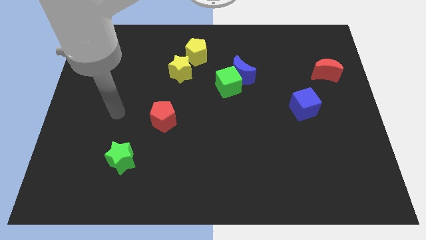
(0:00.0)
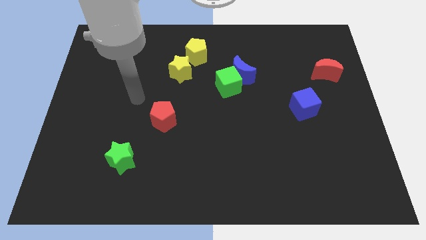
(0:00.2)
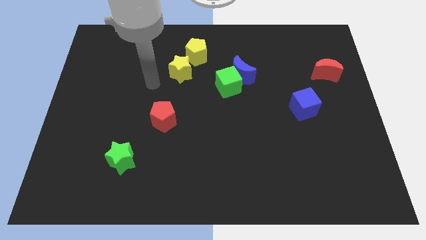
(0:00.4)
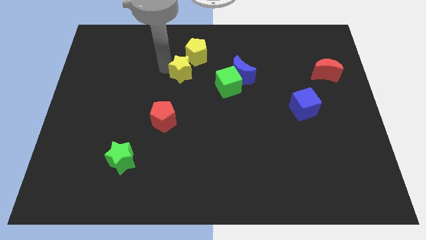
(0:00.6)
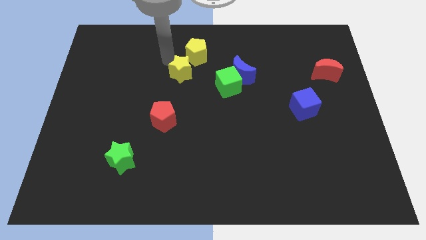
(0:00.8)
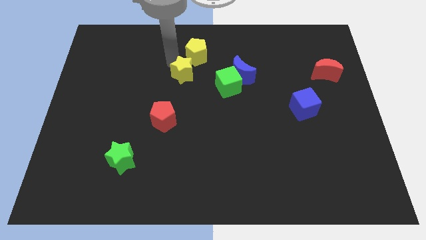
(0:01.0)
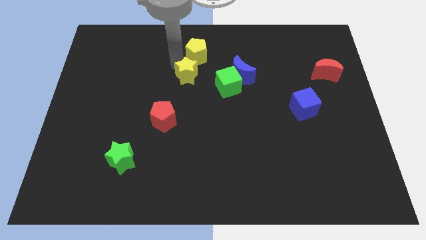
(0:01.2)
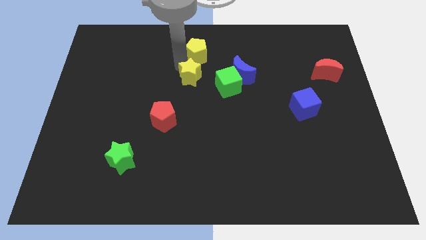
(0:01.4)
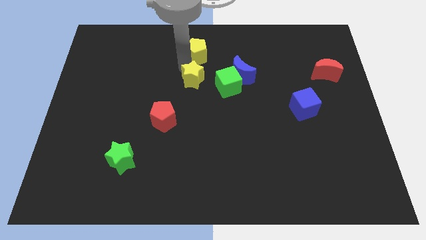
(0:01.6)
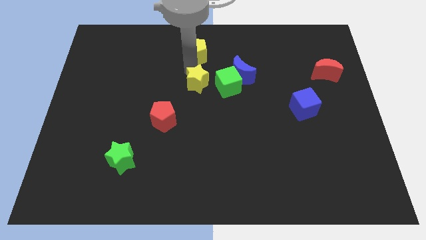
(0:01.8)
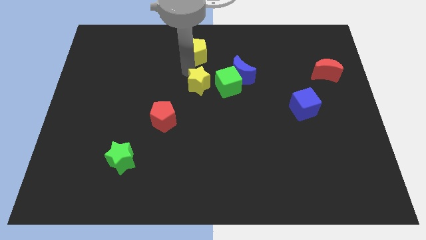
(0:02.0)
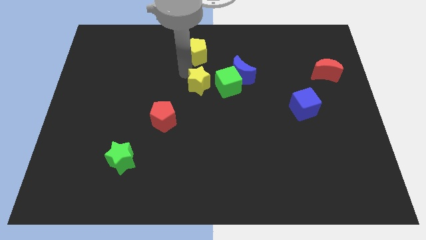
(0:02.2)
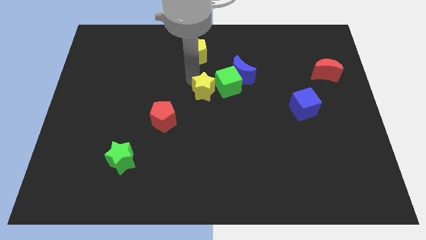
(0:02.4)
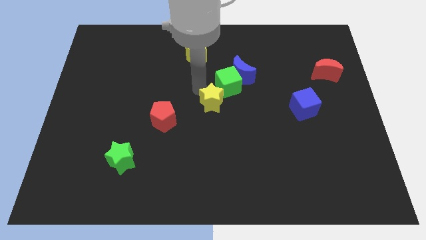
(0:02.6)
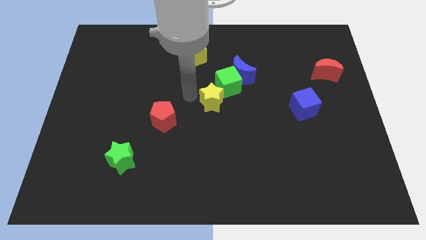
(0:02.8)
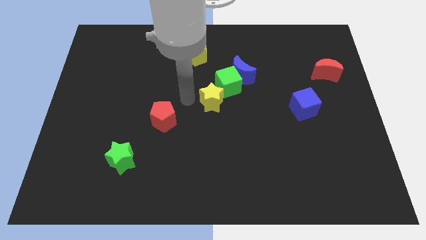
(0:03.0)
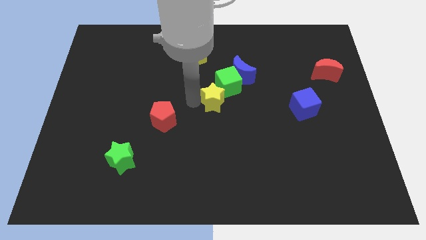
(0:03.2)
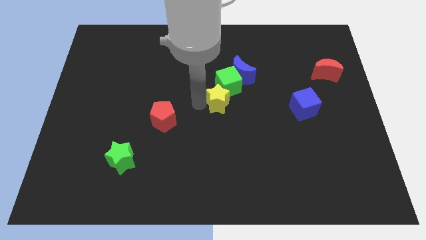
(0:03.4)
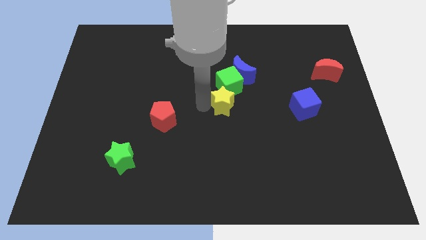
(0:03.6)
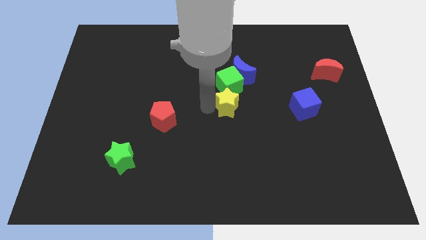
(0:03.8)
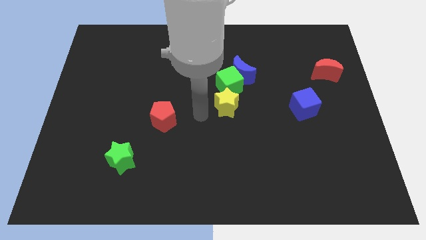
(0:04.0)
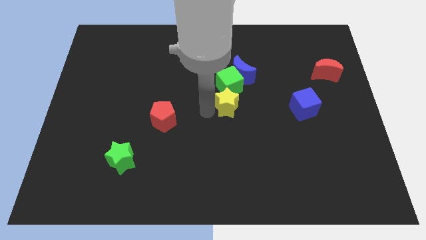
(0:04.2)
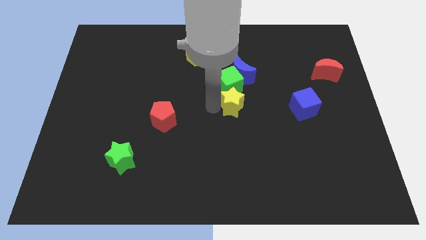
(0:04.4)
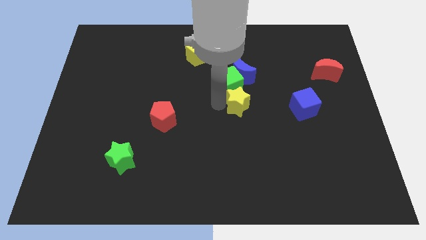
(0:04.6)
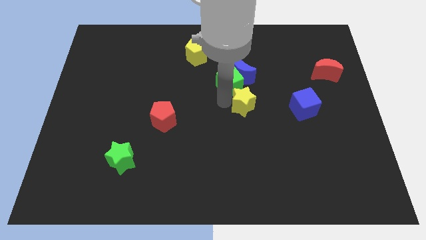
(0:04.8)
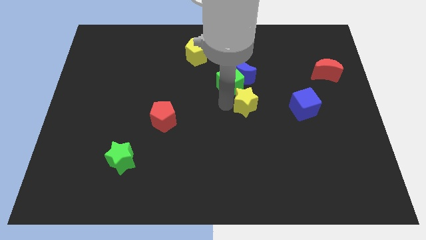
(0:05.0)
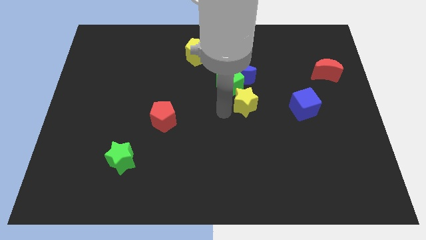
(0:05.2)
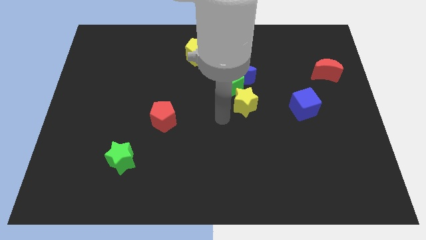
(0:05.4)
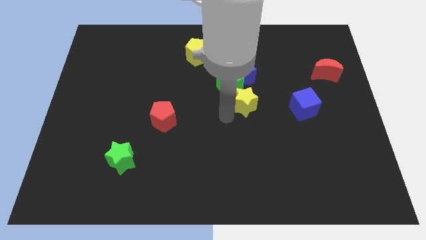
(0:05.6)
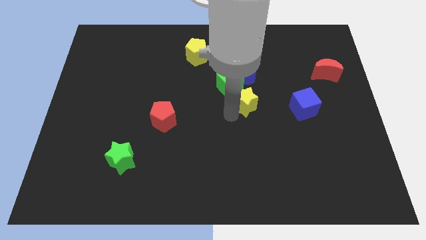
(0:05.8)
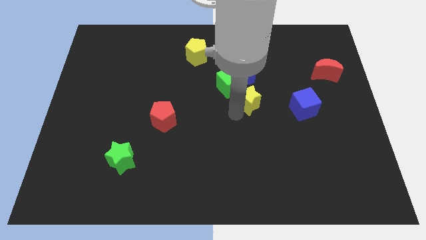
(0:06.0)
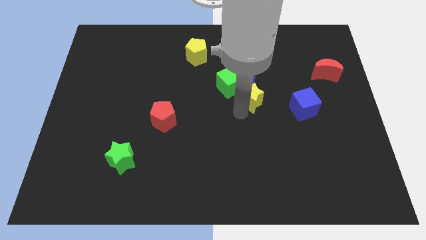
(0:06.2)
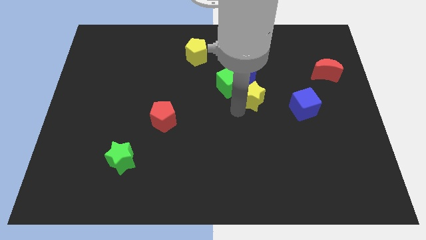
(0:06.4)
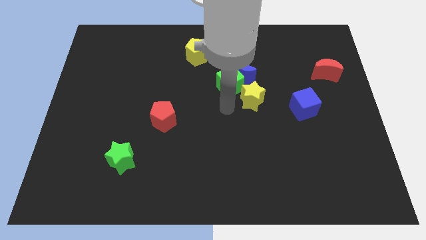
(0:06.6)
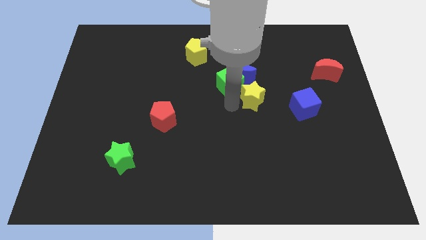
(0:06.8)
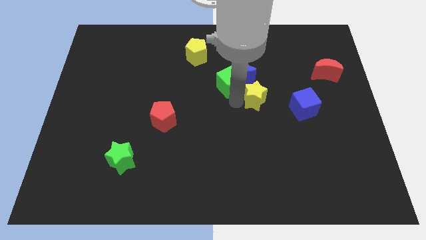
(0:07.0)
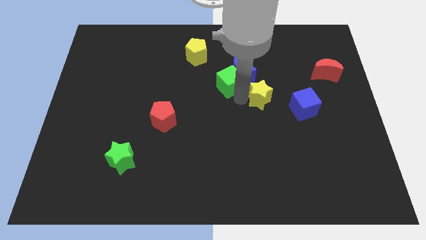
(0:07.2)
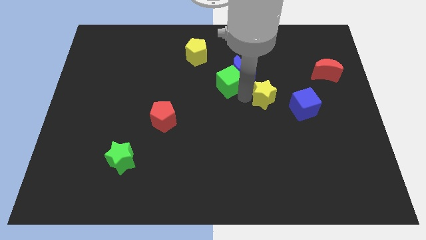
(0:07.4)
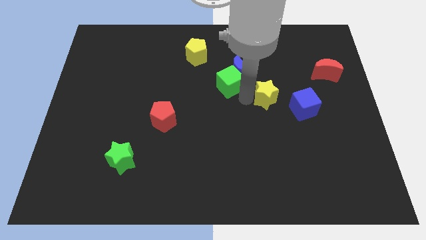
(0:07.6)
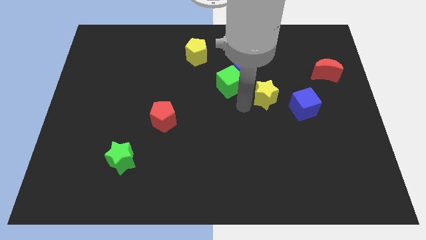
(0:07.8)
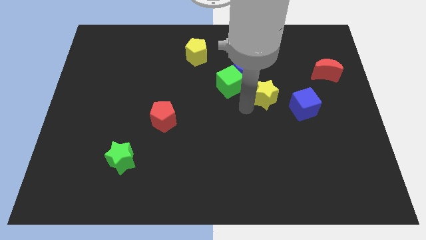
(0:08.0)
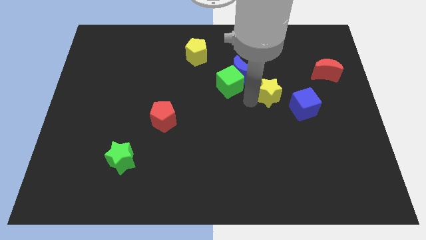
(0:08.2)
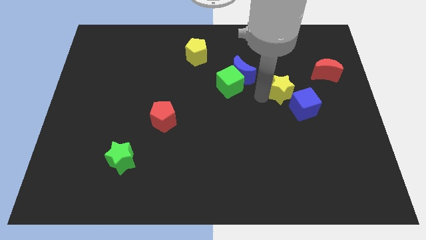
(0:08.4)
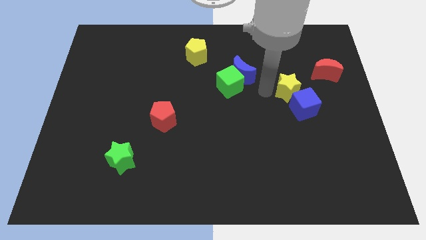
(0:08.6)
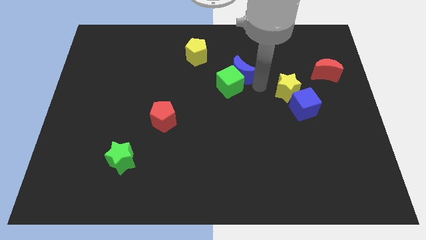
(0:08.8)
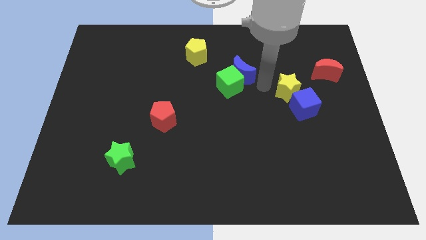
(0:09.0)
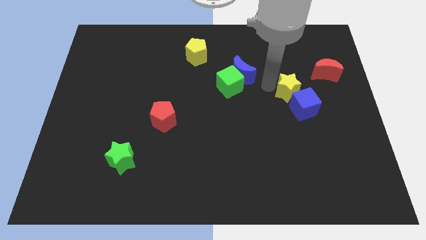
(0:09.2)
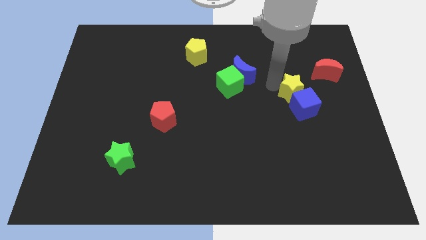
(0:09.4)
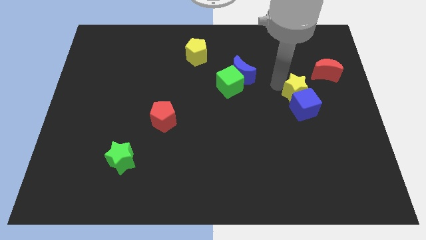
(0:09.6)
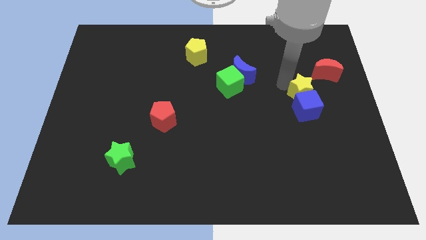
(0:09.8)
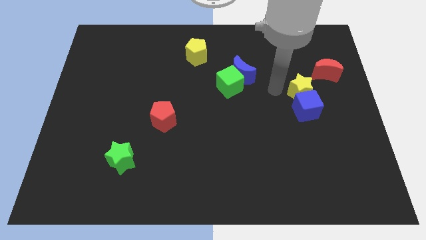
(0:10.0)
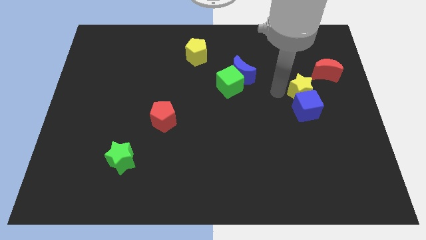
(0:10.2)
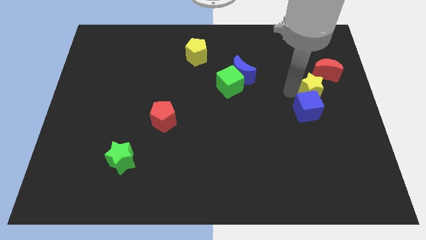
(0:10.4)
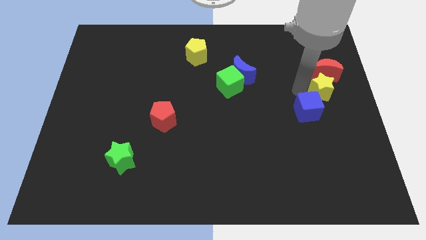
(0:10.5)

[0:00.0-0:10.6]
move the yellow star to the right side
